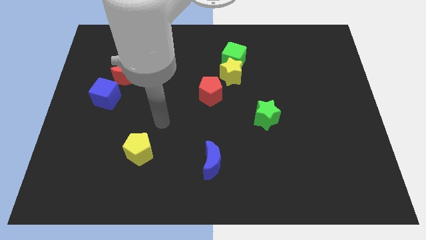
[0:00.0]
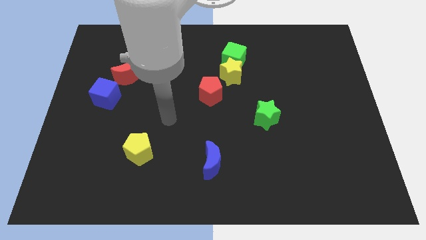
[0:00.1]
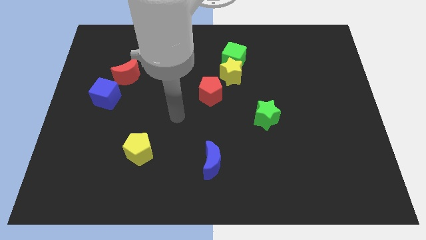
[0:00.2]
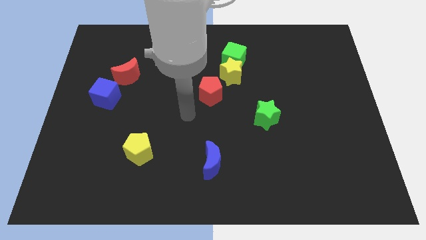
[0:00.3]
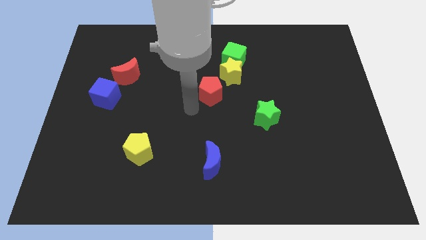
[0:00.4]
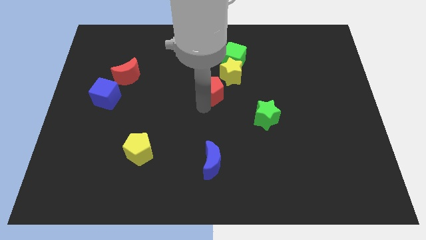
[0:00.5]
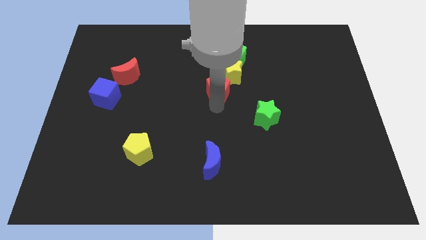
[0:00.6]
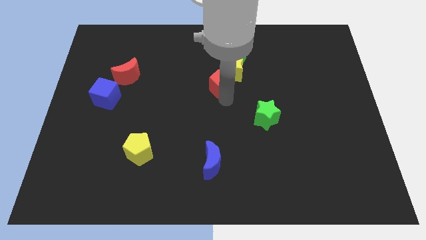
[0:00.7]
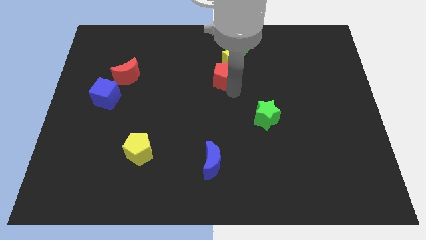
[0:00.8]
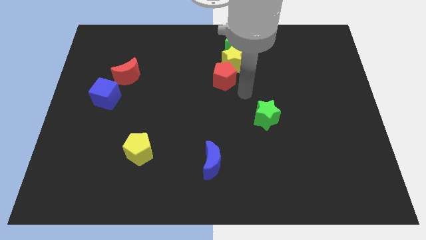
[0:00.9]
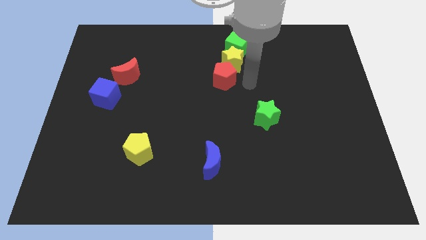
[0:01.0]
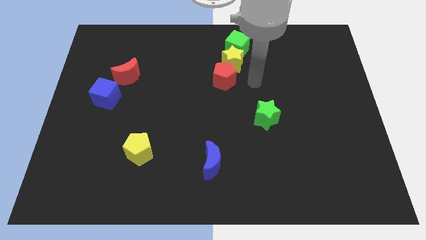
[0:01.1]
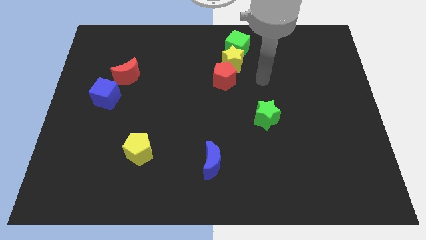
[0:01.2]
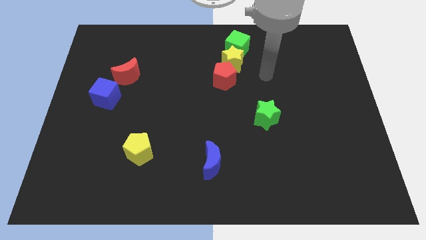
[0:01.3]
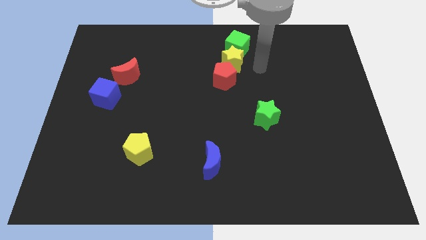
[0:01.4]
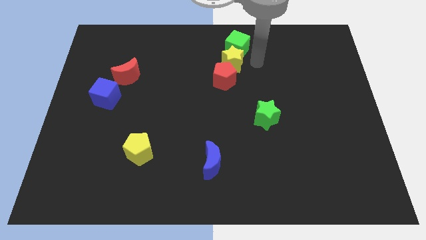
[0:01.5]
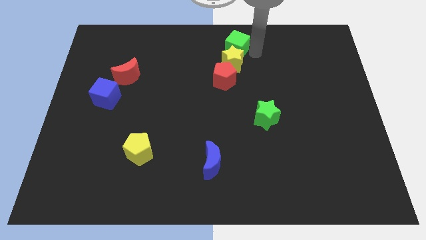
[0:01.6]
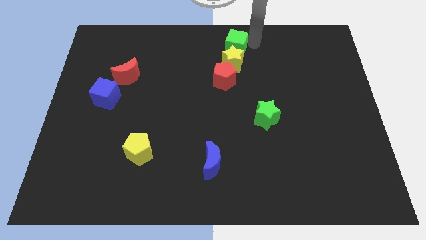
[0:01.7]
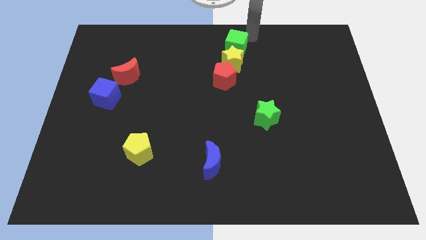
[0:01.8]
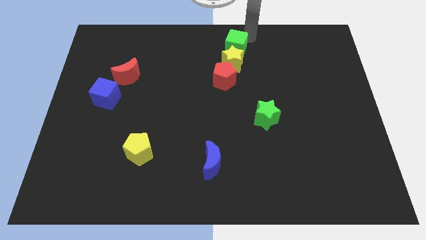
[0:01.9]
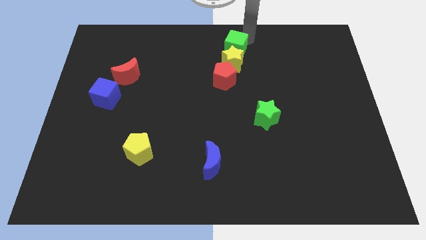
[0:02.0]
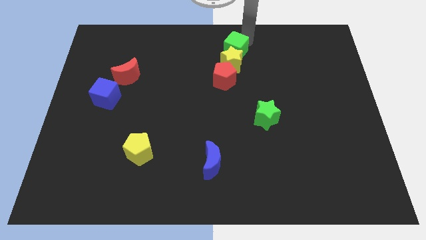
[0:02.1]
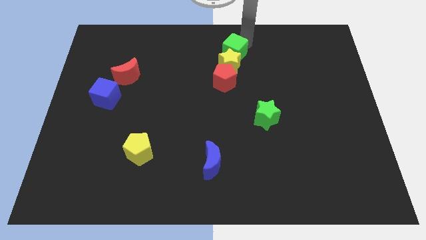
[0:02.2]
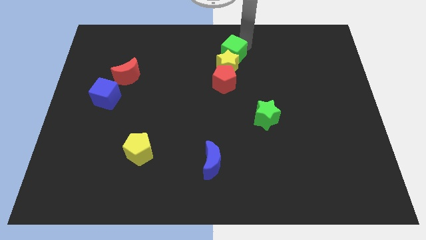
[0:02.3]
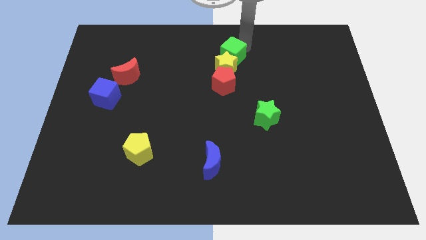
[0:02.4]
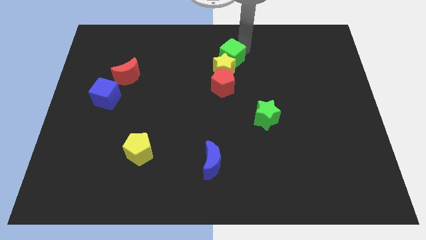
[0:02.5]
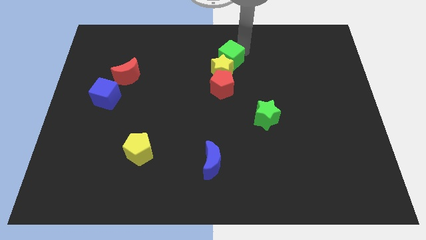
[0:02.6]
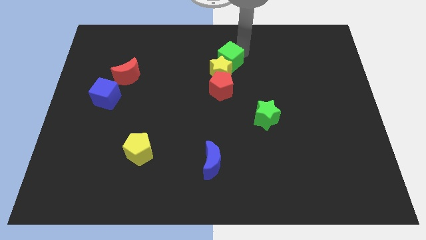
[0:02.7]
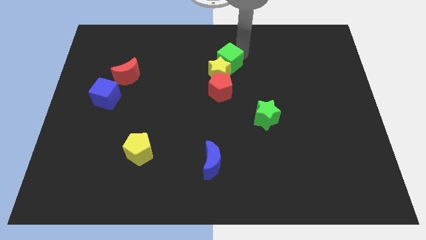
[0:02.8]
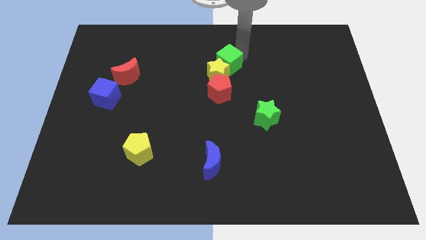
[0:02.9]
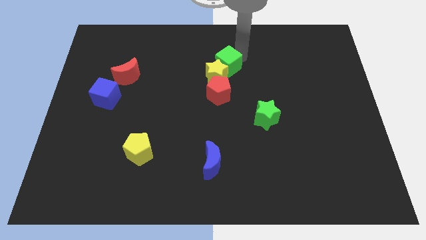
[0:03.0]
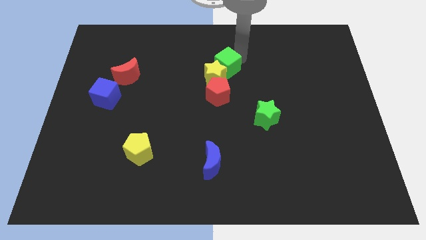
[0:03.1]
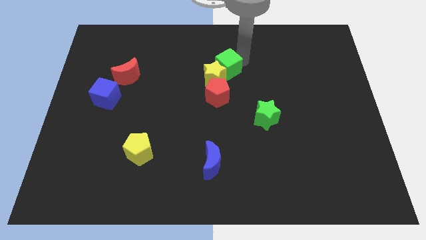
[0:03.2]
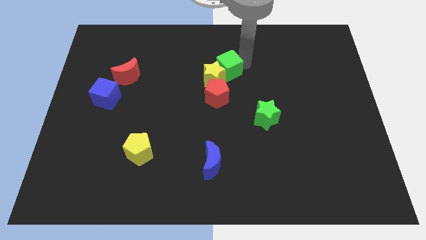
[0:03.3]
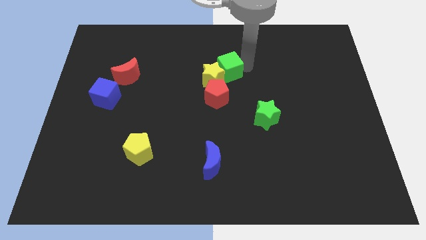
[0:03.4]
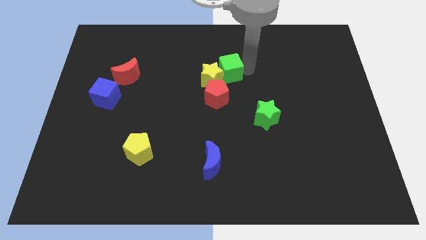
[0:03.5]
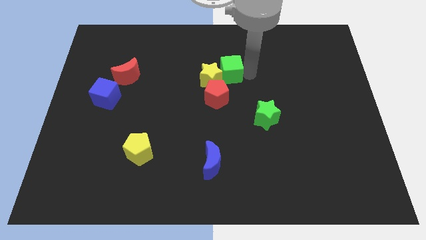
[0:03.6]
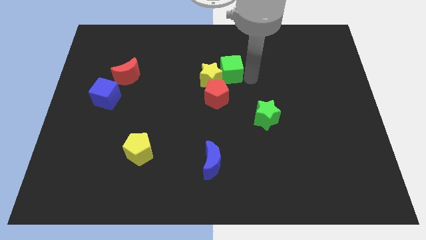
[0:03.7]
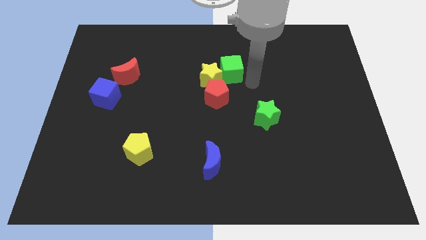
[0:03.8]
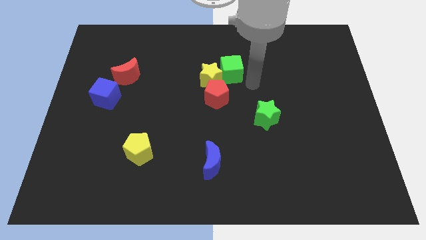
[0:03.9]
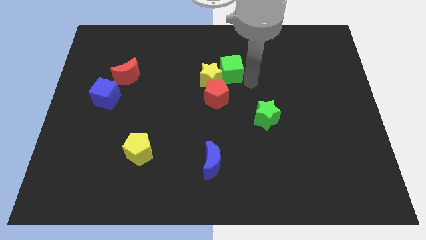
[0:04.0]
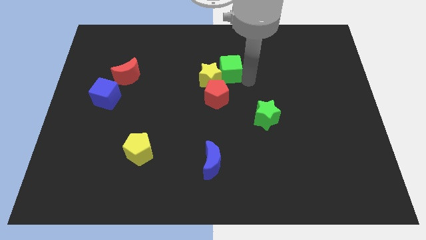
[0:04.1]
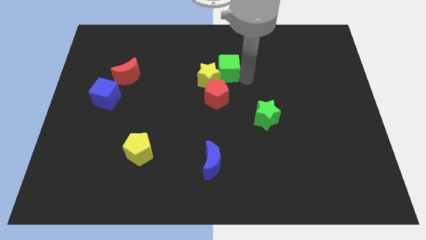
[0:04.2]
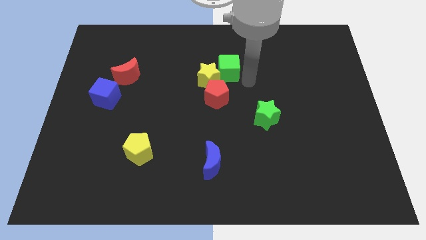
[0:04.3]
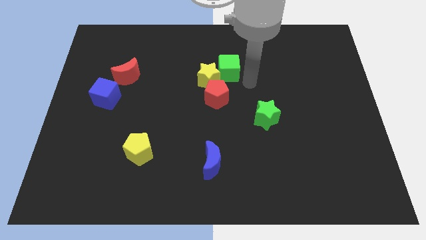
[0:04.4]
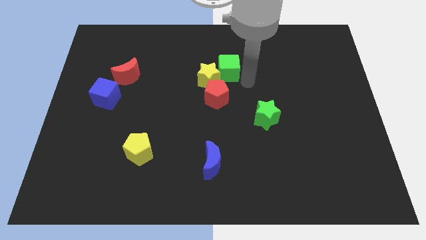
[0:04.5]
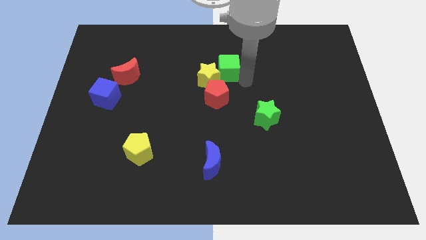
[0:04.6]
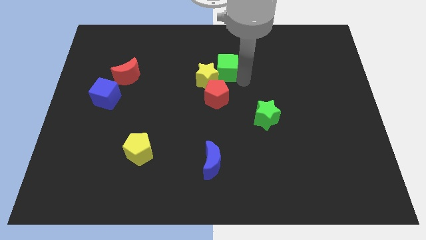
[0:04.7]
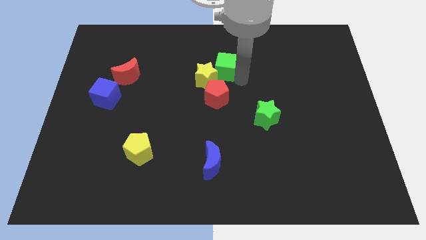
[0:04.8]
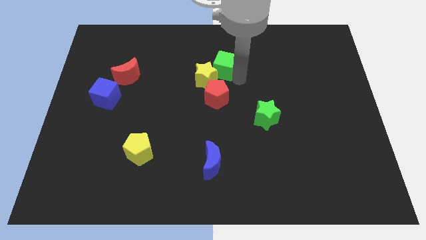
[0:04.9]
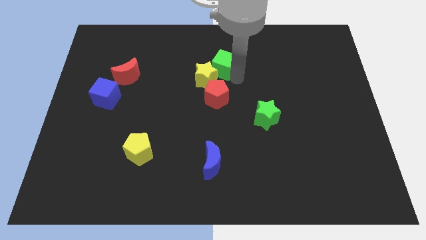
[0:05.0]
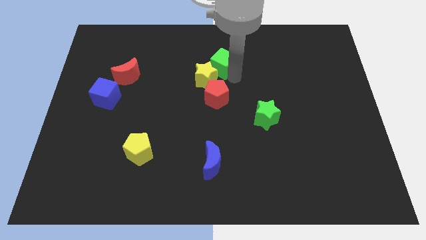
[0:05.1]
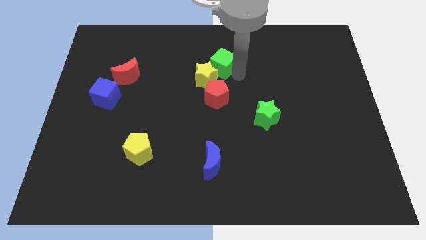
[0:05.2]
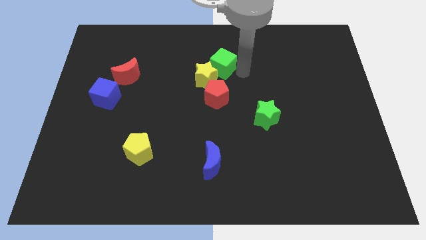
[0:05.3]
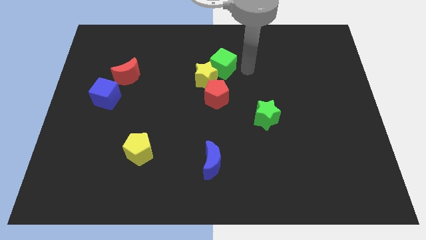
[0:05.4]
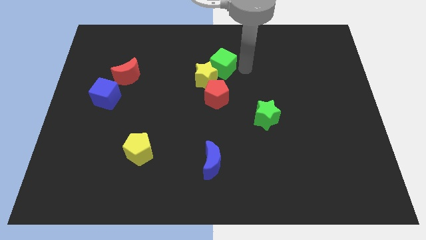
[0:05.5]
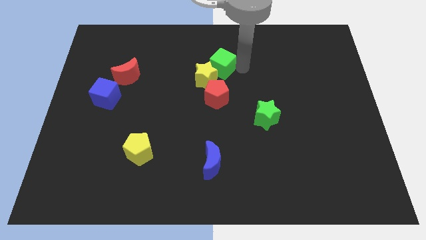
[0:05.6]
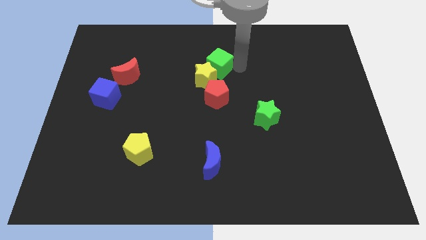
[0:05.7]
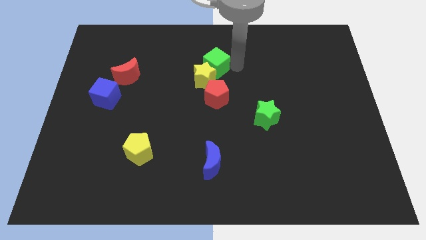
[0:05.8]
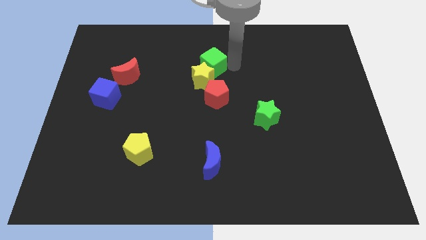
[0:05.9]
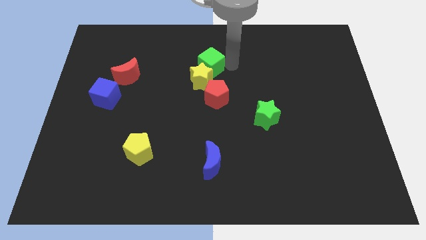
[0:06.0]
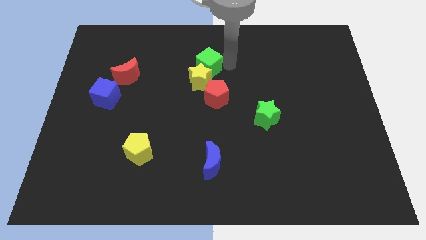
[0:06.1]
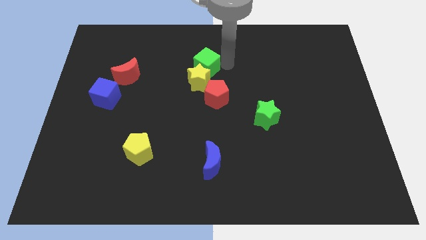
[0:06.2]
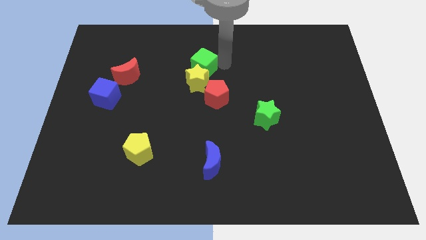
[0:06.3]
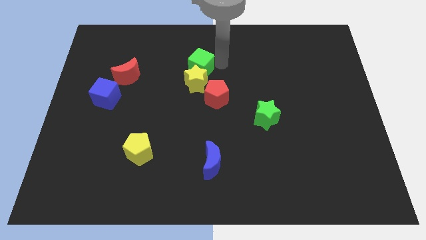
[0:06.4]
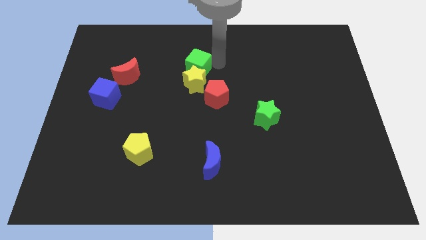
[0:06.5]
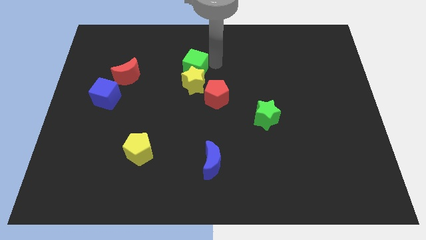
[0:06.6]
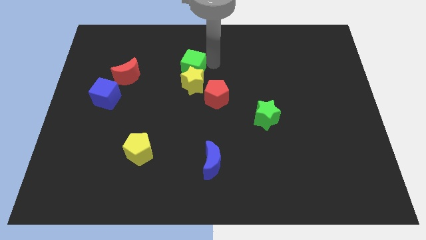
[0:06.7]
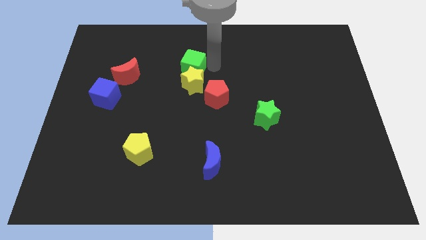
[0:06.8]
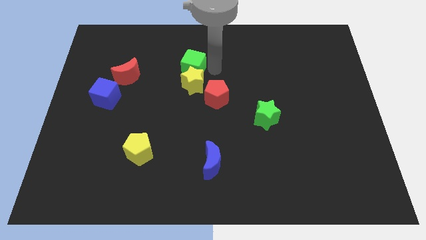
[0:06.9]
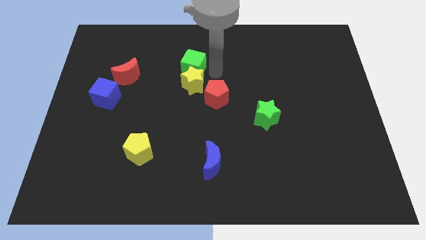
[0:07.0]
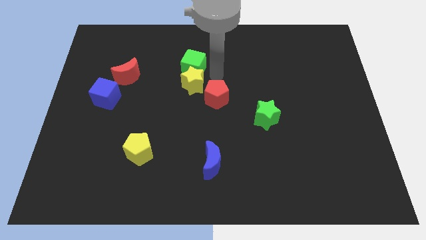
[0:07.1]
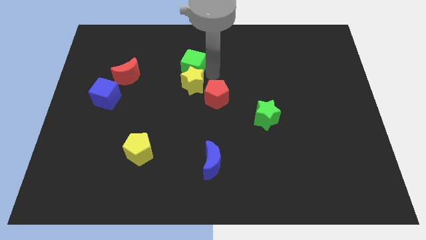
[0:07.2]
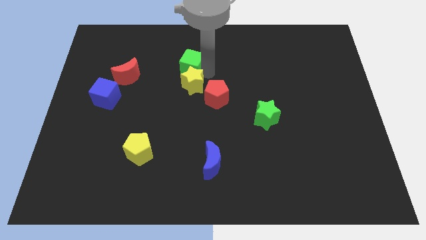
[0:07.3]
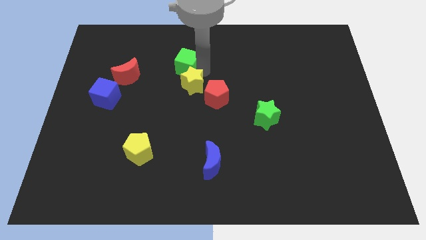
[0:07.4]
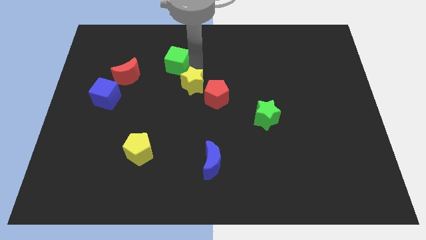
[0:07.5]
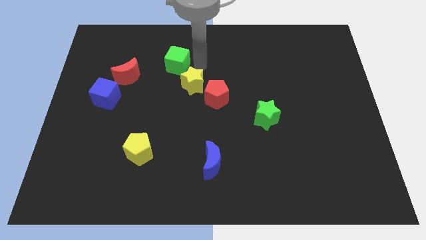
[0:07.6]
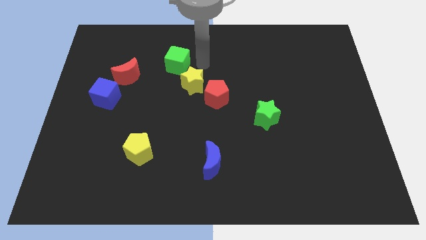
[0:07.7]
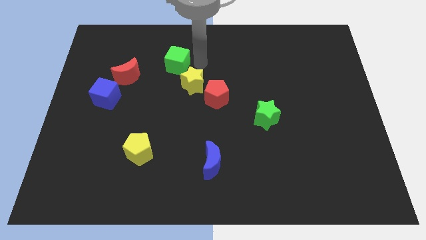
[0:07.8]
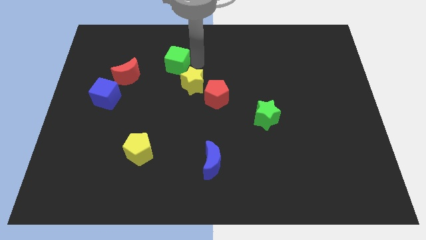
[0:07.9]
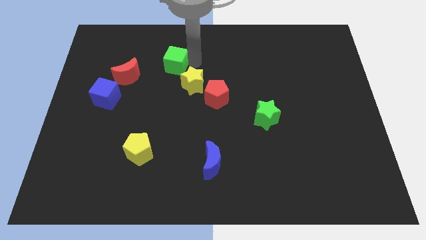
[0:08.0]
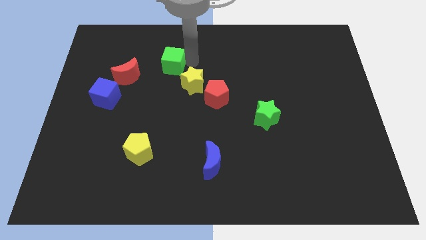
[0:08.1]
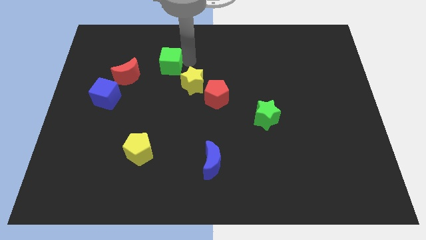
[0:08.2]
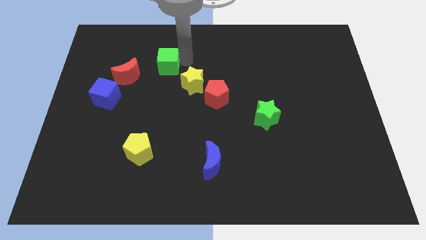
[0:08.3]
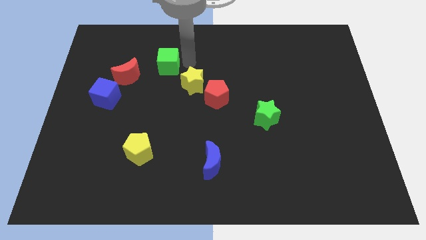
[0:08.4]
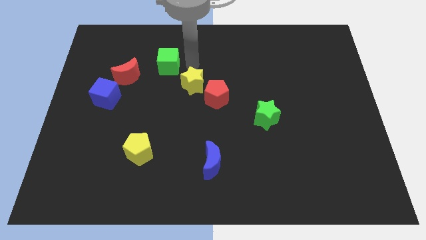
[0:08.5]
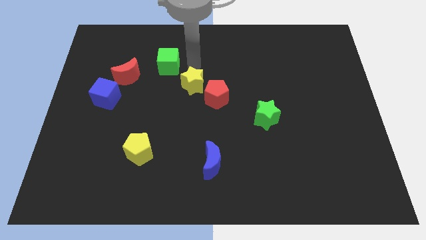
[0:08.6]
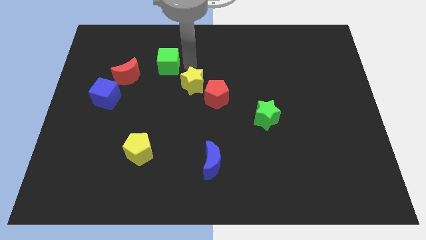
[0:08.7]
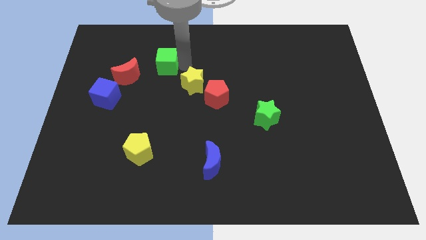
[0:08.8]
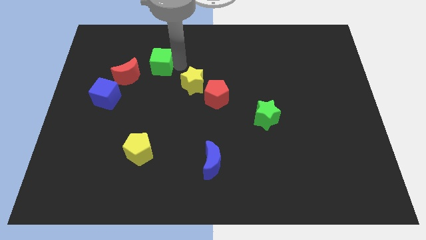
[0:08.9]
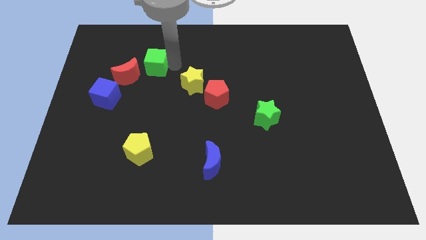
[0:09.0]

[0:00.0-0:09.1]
slide the green cube left
